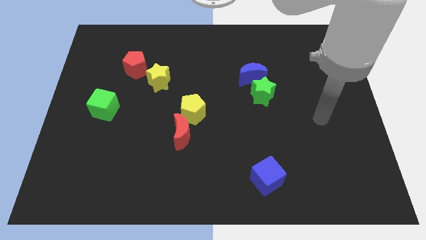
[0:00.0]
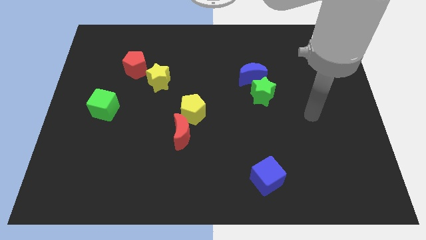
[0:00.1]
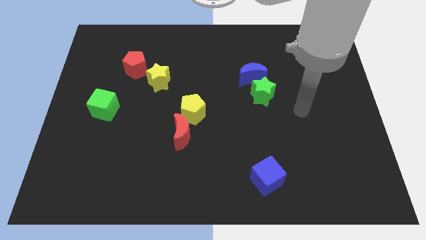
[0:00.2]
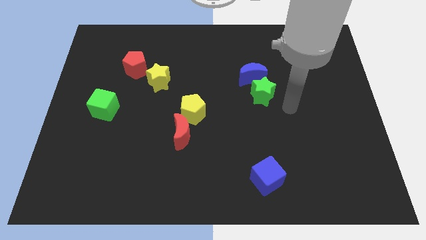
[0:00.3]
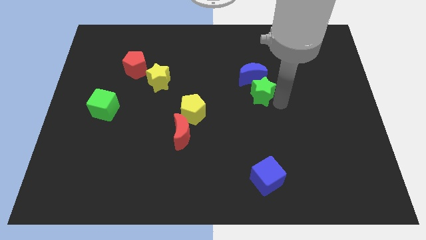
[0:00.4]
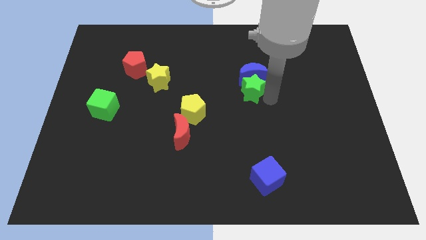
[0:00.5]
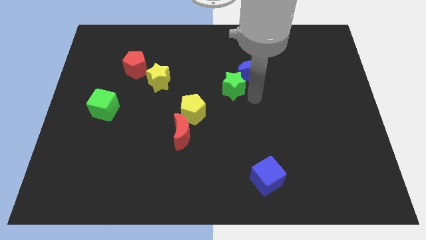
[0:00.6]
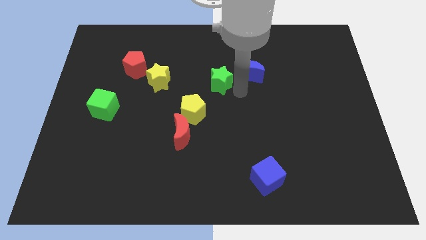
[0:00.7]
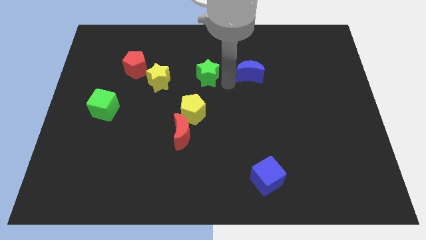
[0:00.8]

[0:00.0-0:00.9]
move the blue moon away from the green star

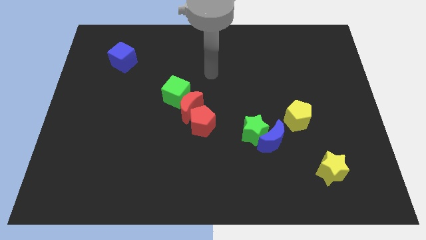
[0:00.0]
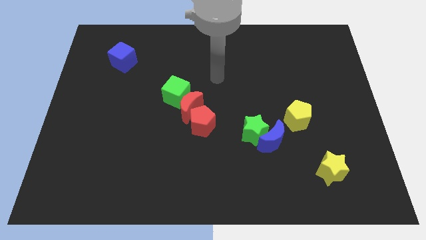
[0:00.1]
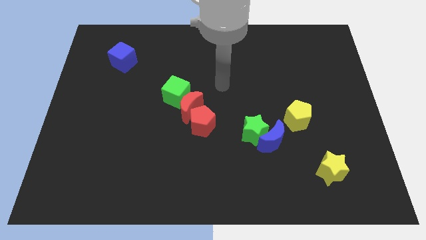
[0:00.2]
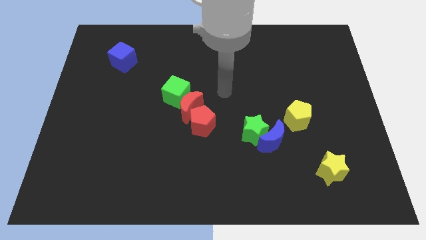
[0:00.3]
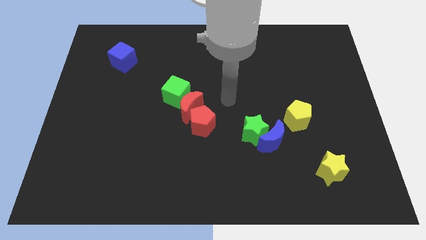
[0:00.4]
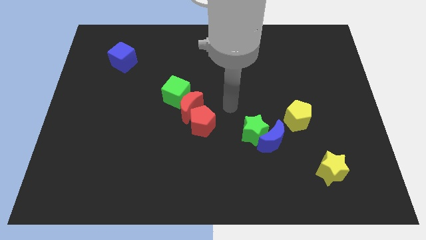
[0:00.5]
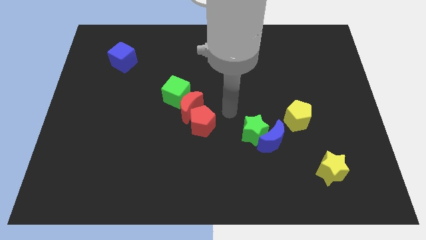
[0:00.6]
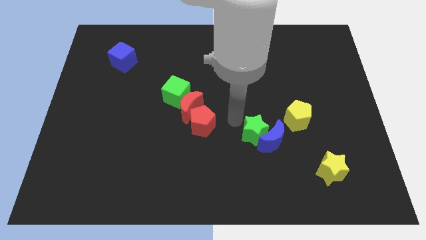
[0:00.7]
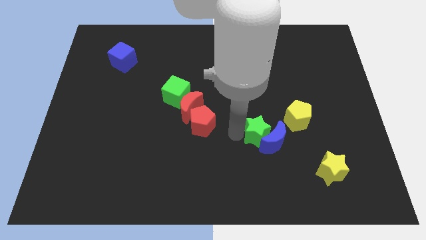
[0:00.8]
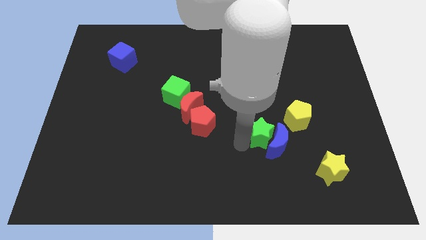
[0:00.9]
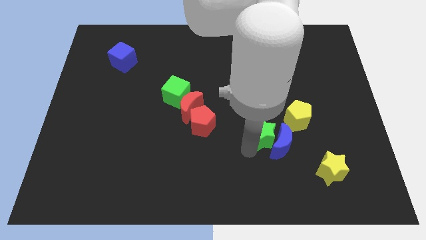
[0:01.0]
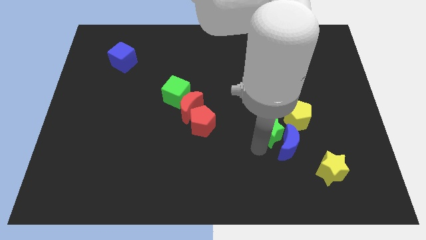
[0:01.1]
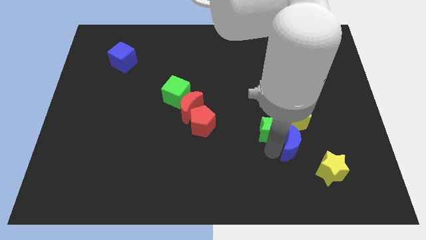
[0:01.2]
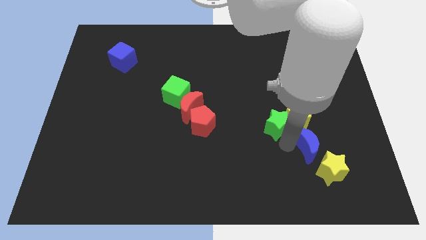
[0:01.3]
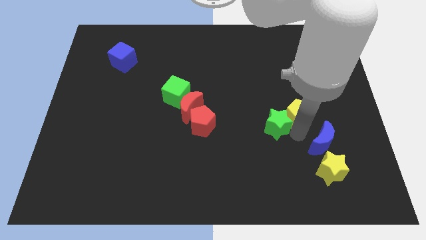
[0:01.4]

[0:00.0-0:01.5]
separate the green star from the blue moon

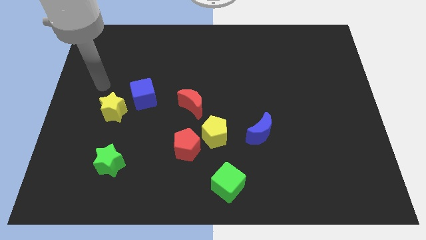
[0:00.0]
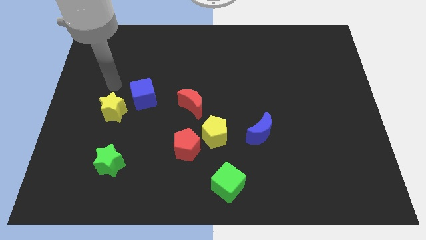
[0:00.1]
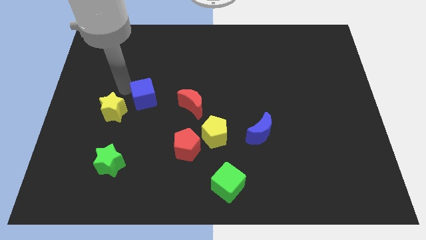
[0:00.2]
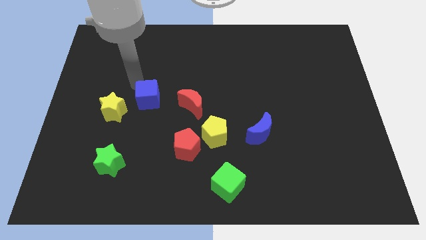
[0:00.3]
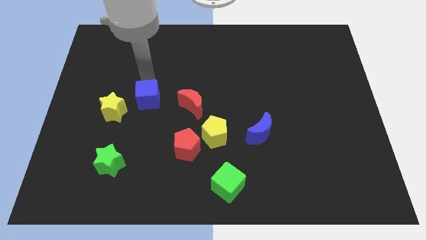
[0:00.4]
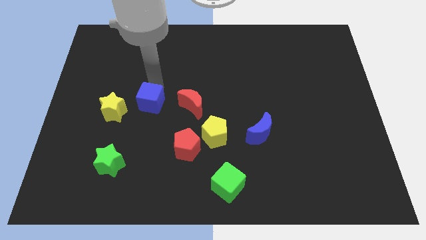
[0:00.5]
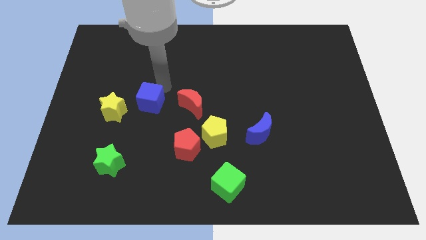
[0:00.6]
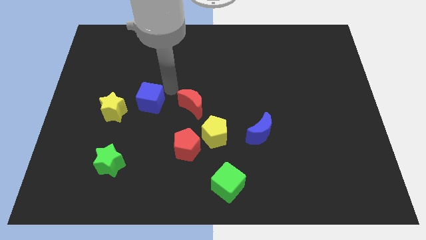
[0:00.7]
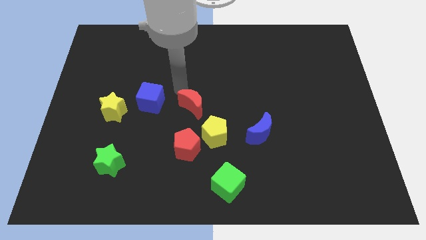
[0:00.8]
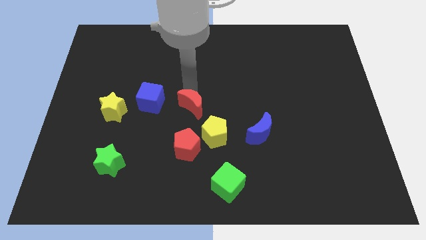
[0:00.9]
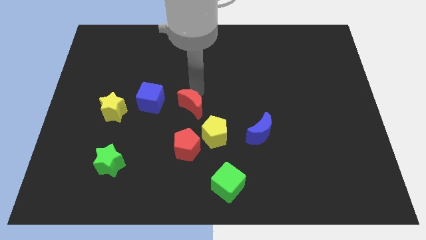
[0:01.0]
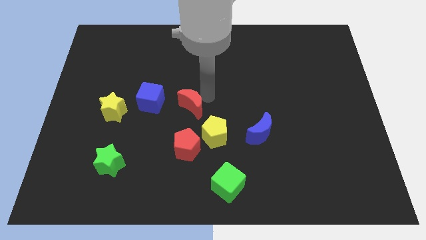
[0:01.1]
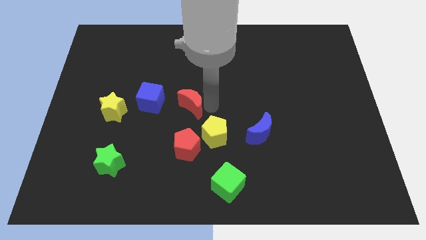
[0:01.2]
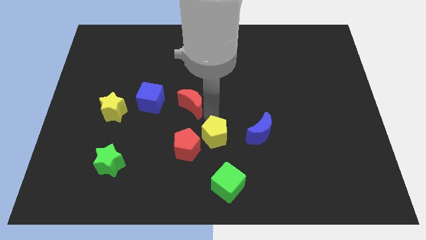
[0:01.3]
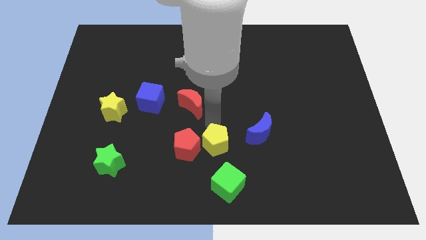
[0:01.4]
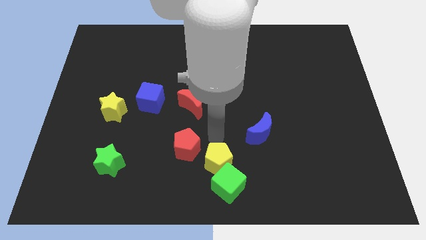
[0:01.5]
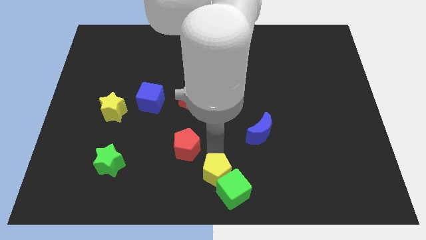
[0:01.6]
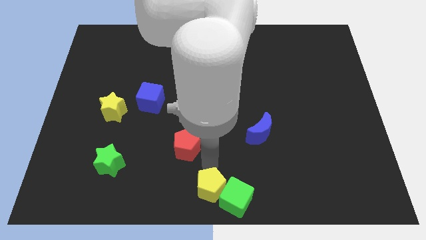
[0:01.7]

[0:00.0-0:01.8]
separate the red pentagon from the yellow pentagon

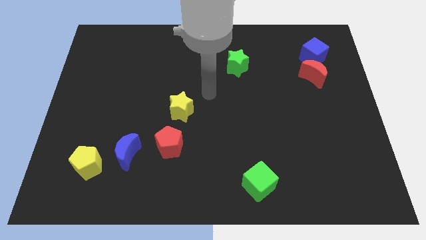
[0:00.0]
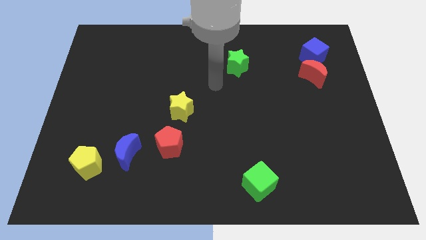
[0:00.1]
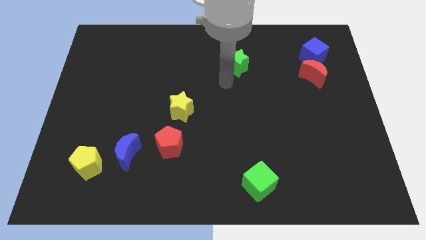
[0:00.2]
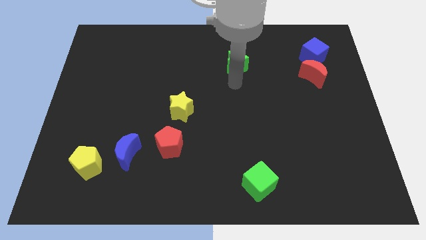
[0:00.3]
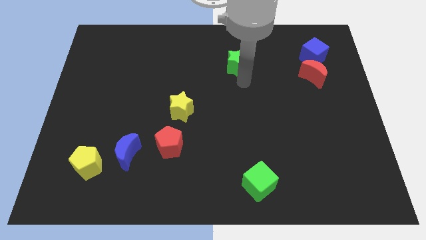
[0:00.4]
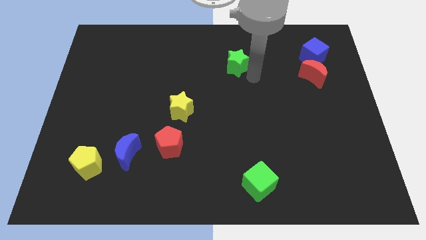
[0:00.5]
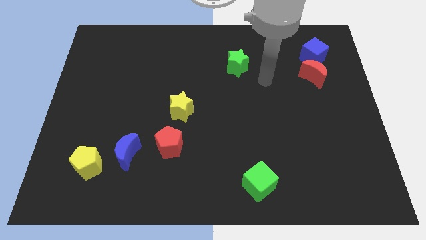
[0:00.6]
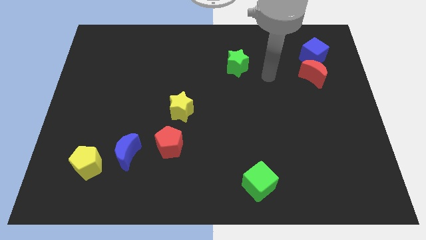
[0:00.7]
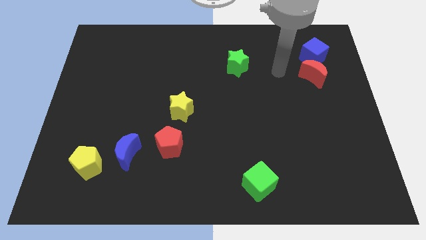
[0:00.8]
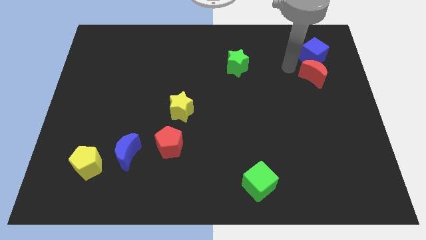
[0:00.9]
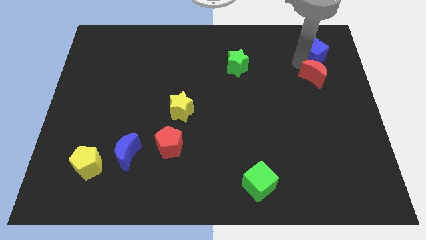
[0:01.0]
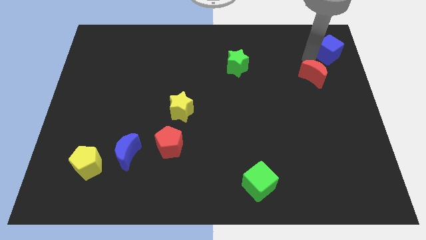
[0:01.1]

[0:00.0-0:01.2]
pull the red moon apart from the blue cube

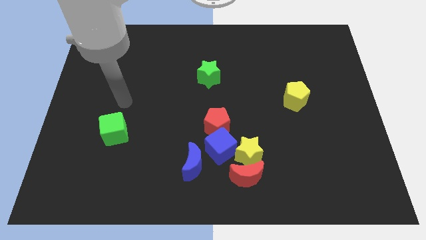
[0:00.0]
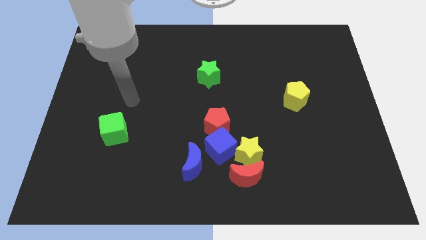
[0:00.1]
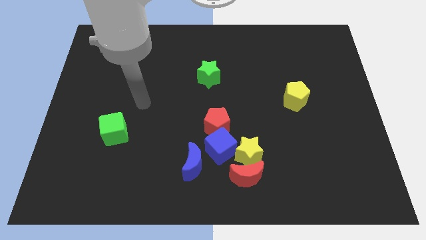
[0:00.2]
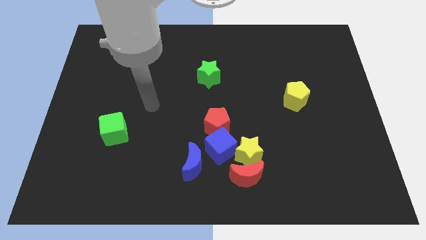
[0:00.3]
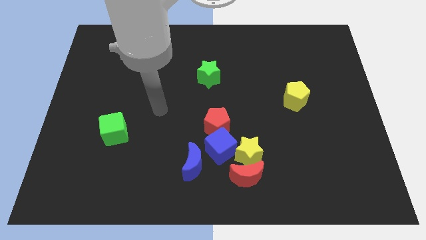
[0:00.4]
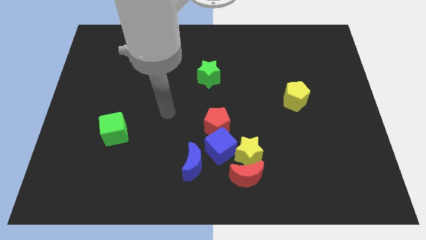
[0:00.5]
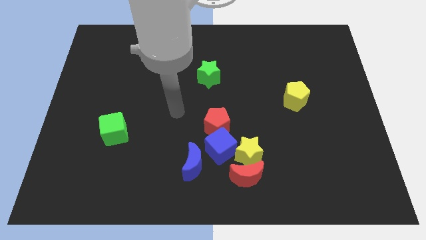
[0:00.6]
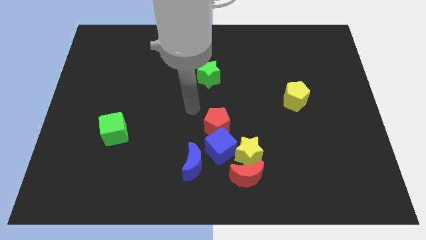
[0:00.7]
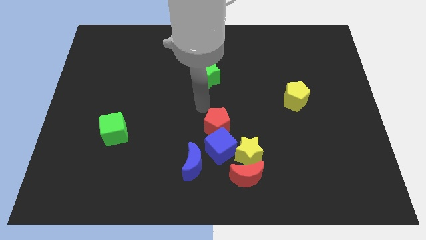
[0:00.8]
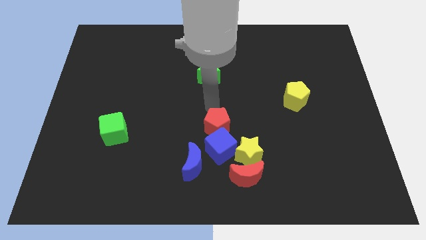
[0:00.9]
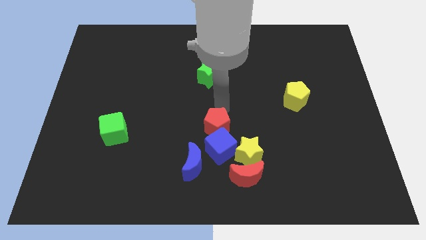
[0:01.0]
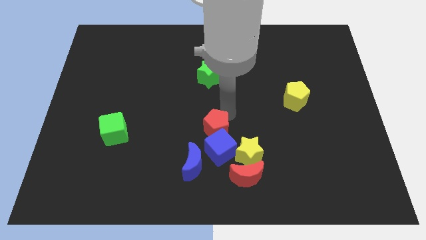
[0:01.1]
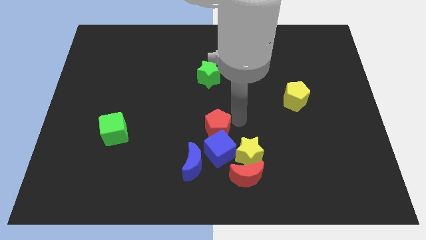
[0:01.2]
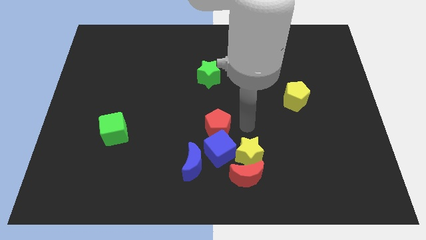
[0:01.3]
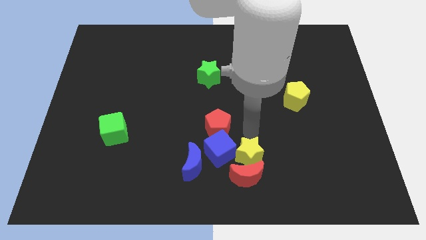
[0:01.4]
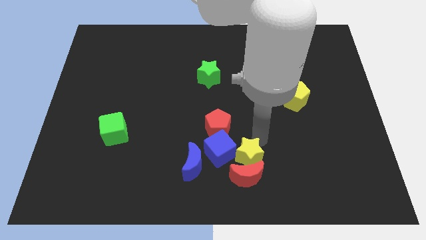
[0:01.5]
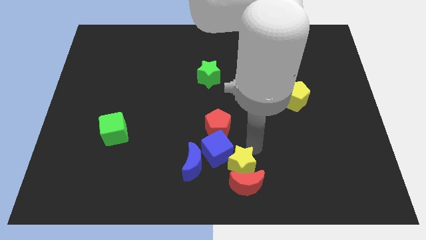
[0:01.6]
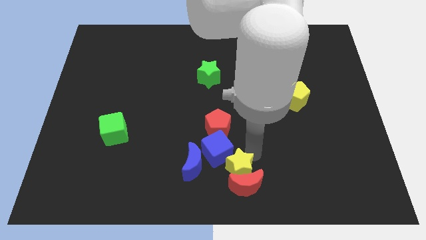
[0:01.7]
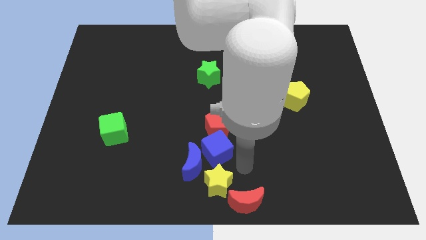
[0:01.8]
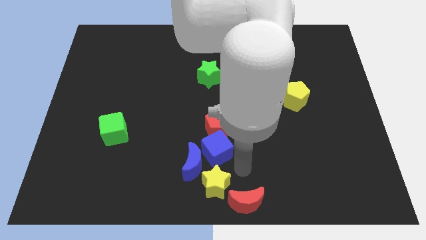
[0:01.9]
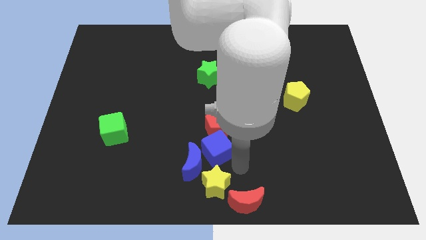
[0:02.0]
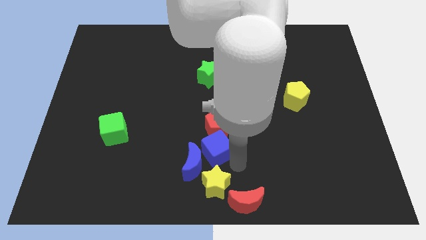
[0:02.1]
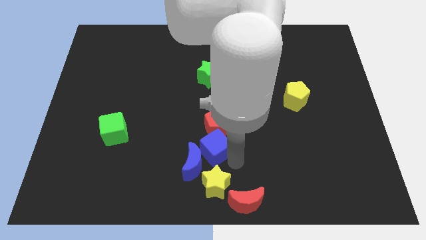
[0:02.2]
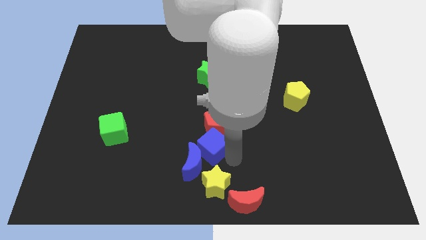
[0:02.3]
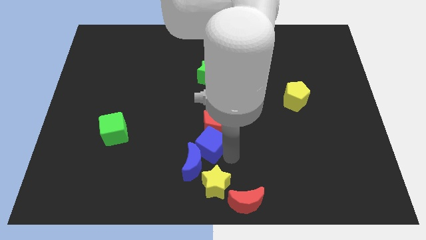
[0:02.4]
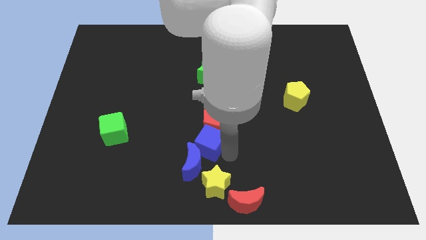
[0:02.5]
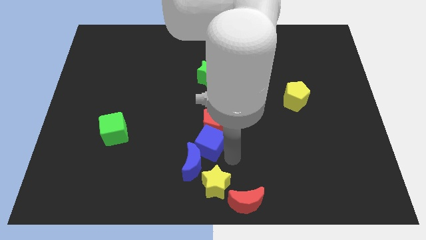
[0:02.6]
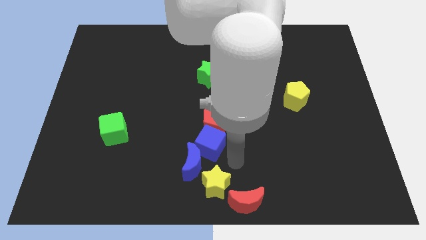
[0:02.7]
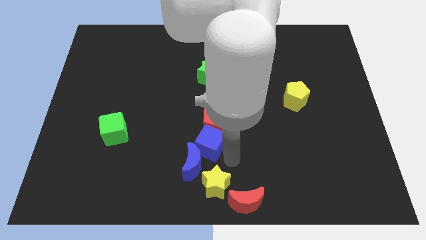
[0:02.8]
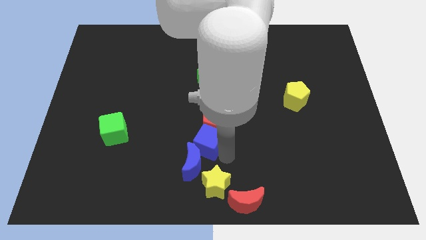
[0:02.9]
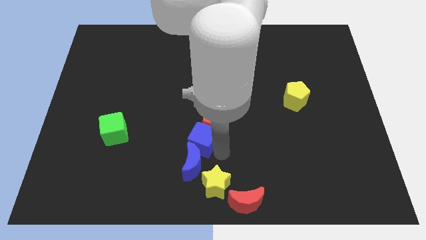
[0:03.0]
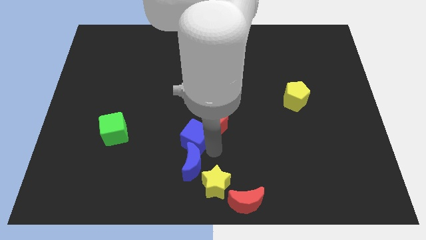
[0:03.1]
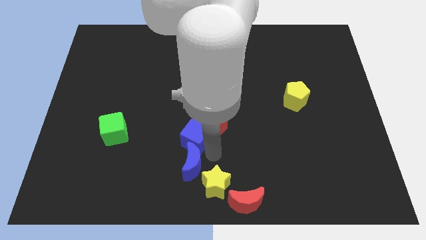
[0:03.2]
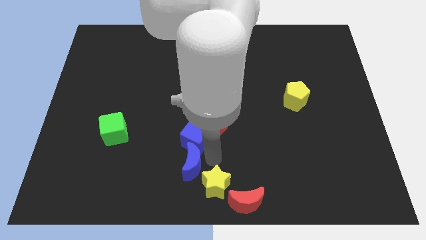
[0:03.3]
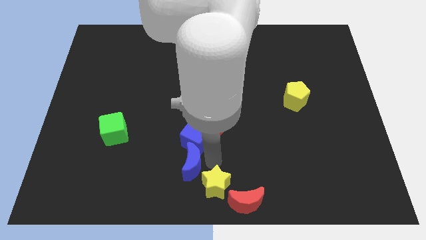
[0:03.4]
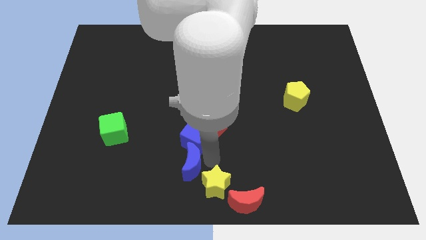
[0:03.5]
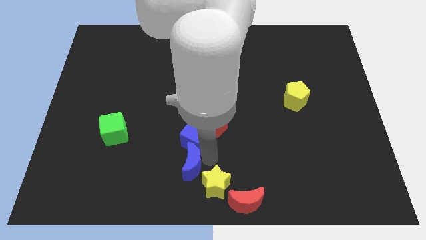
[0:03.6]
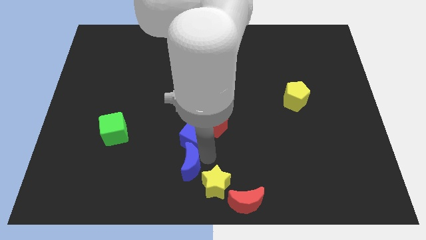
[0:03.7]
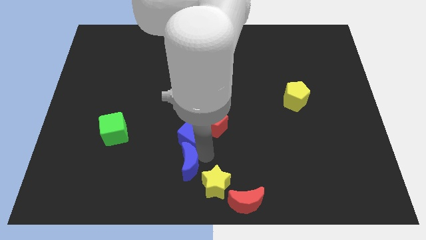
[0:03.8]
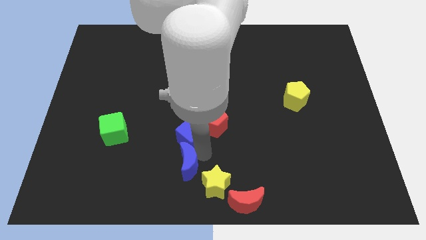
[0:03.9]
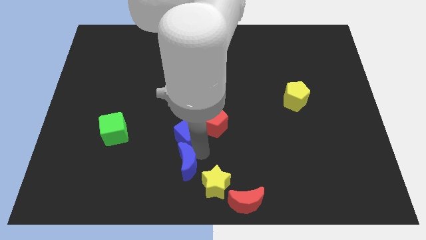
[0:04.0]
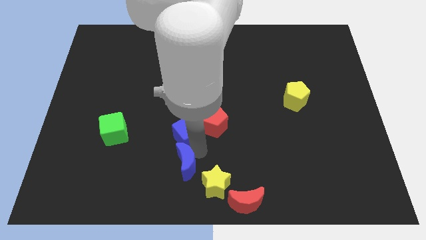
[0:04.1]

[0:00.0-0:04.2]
separate the blue cube from the group
